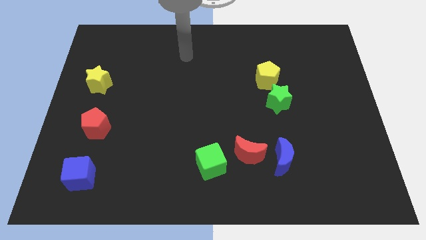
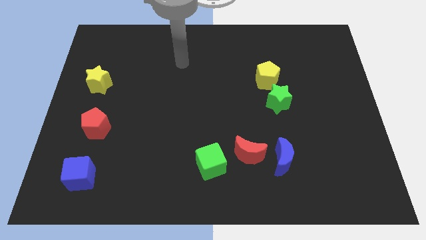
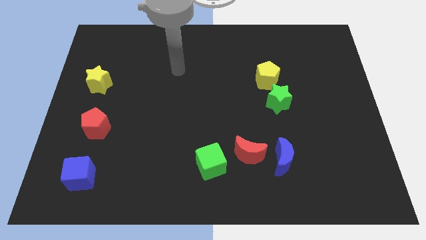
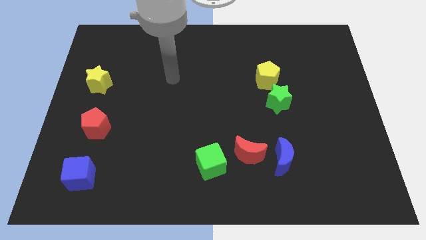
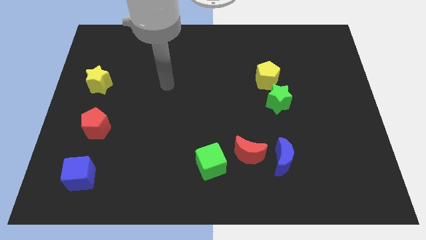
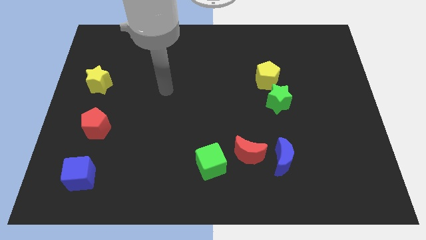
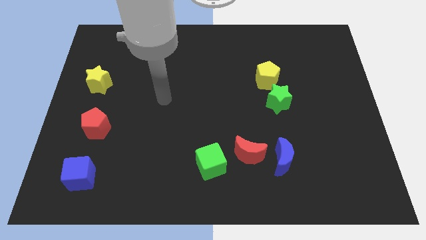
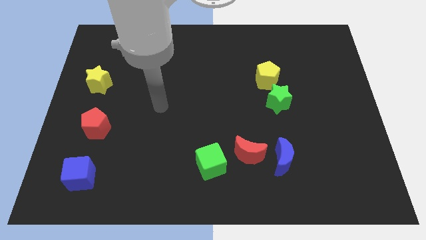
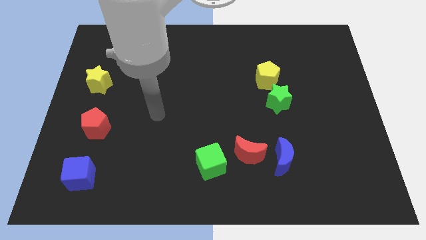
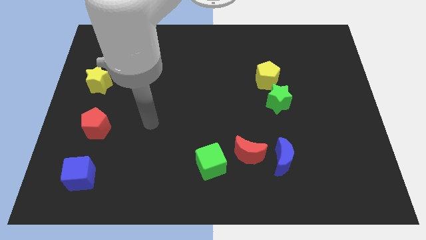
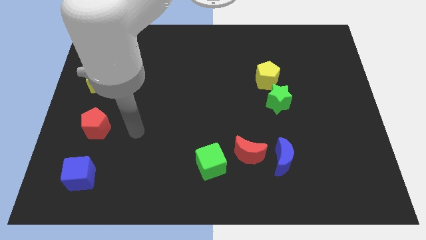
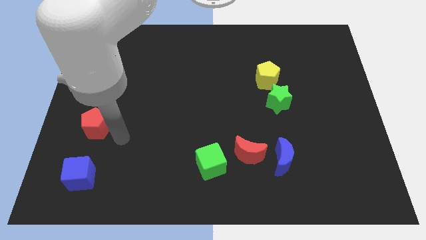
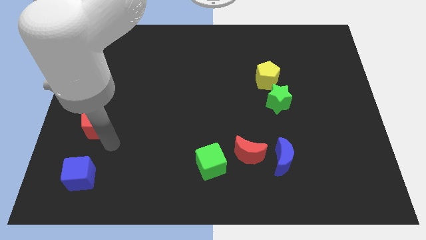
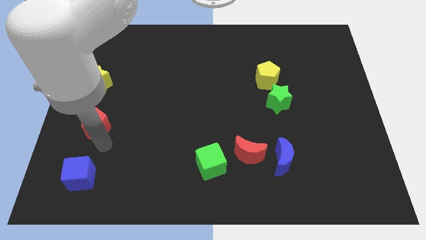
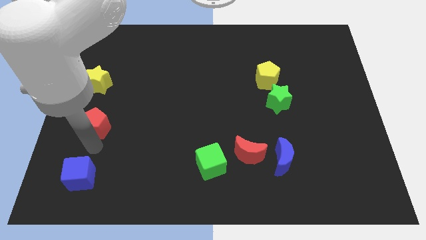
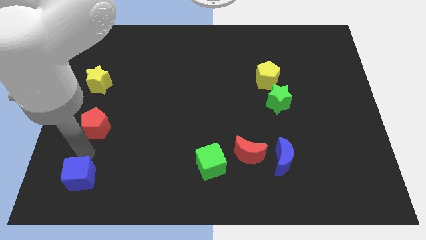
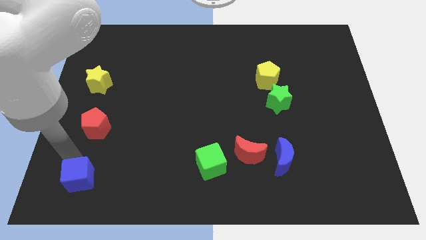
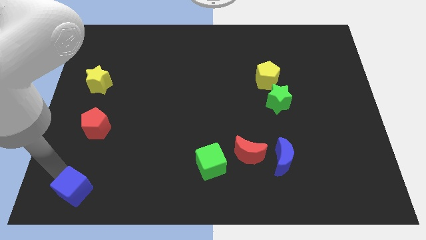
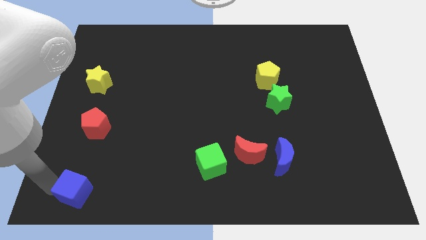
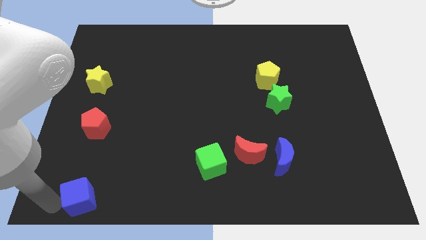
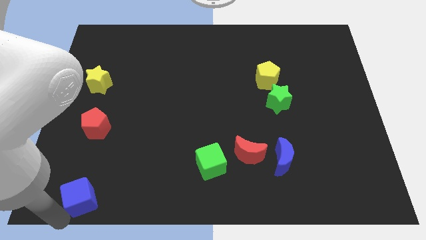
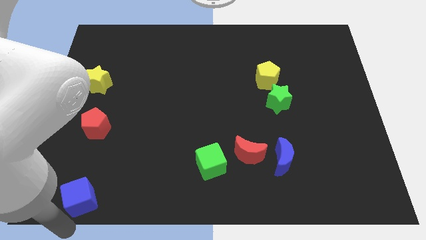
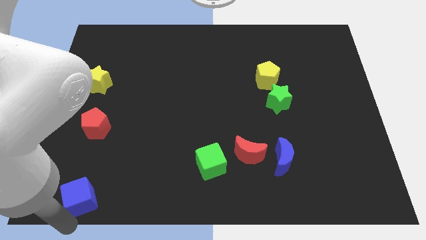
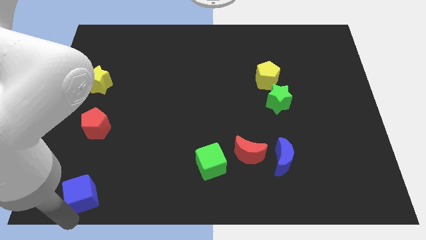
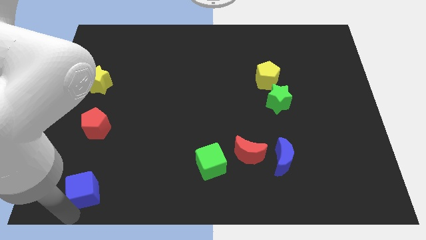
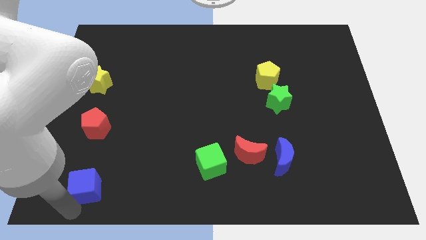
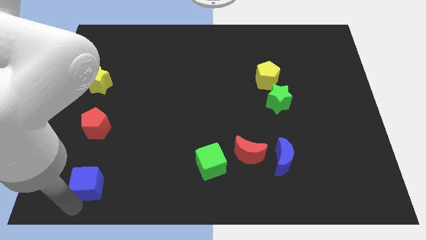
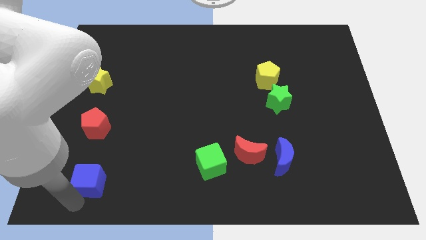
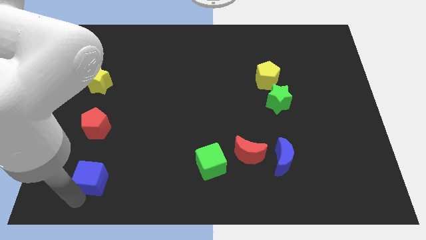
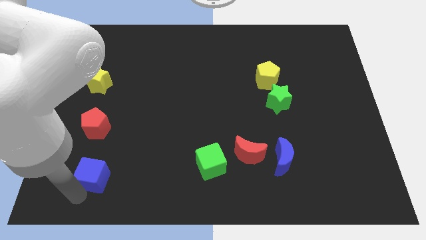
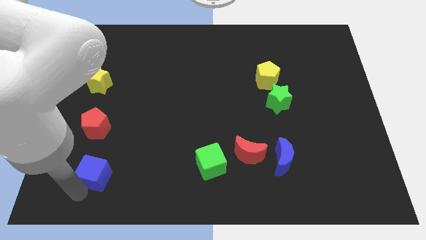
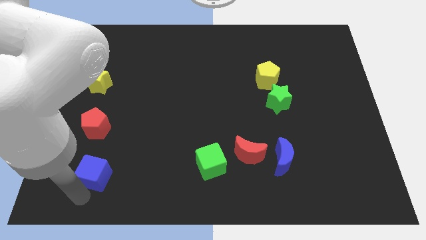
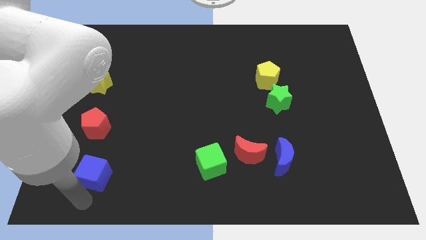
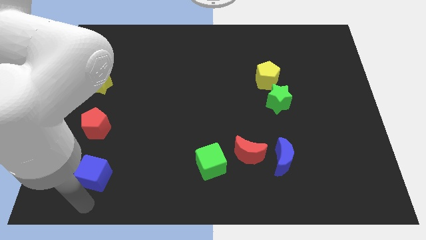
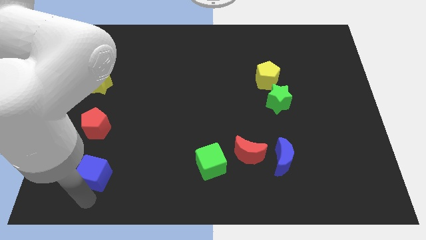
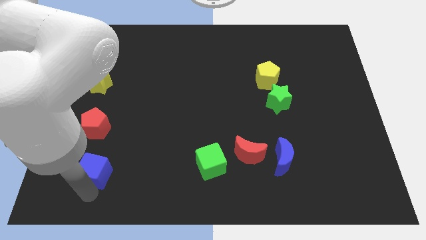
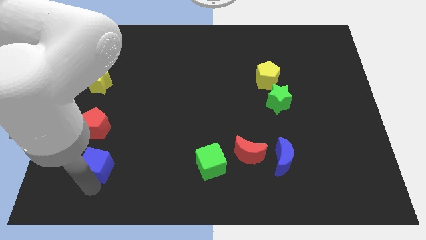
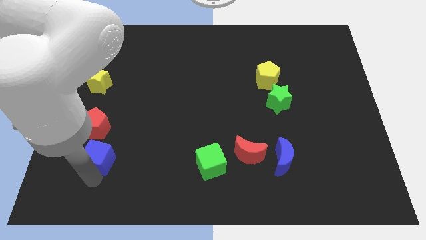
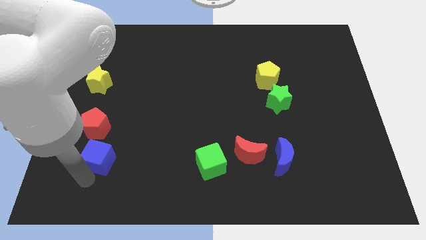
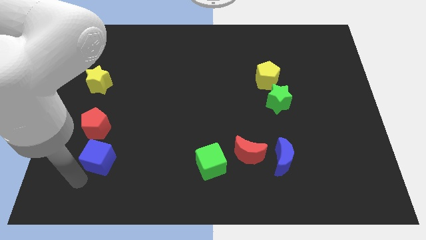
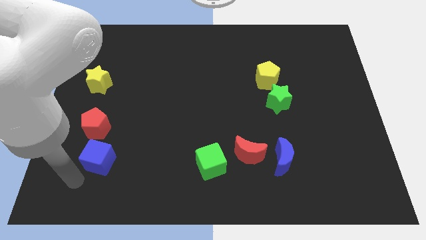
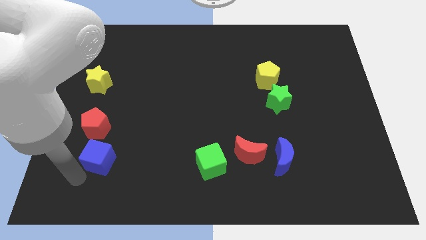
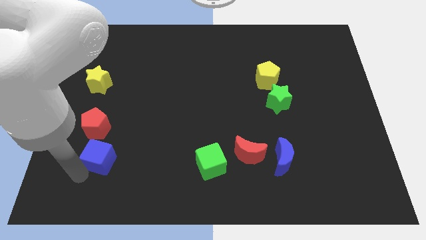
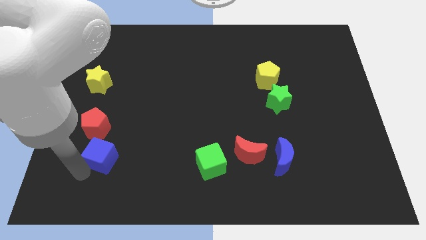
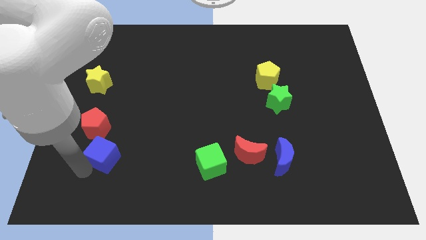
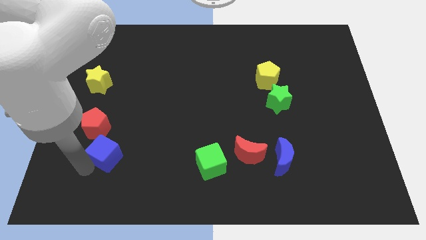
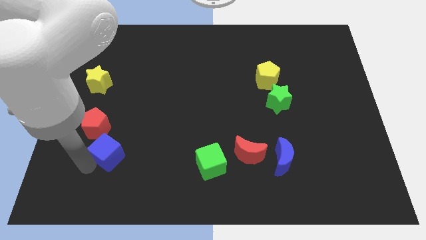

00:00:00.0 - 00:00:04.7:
slightly push the blue cube up and then right

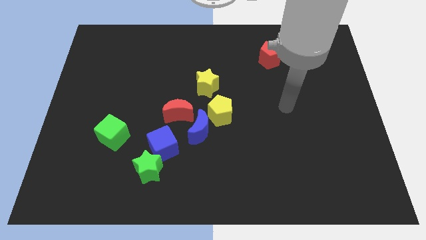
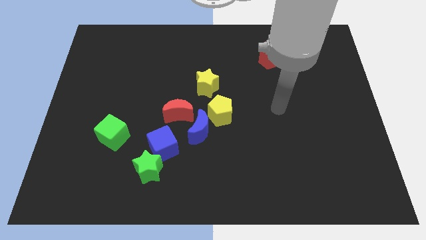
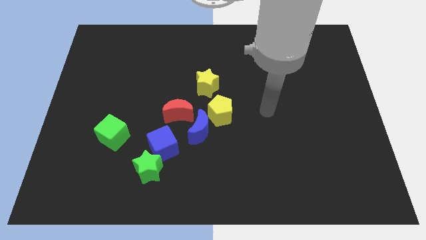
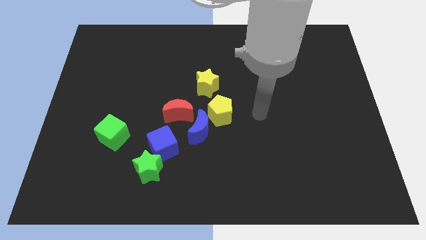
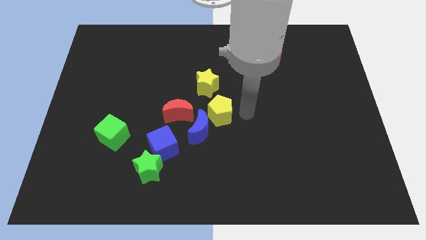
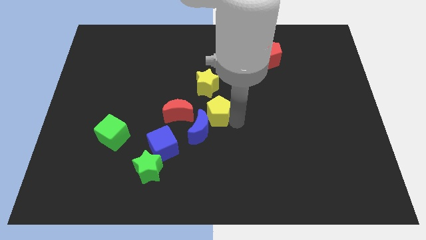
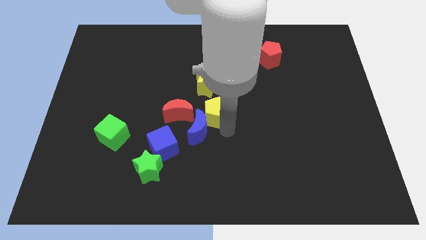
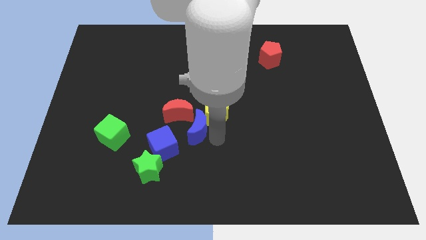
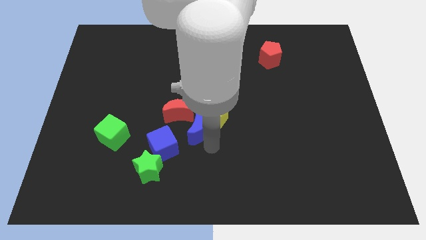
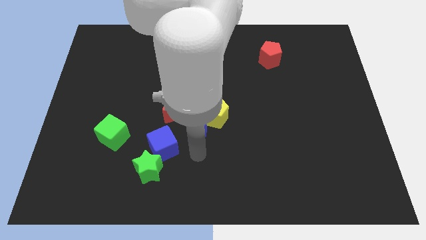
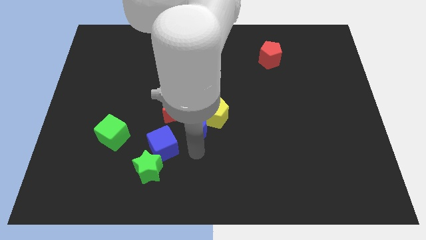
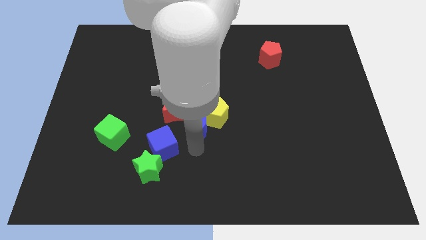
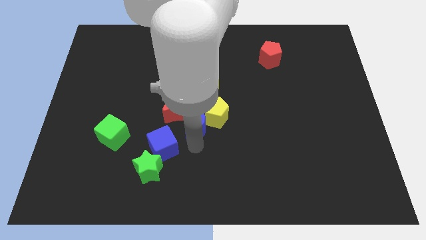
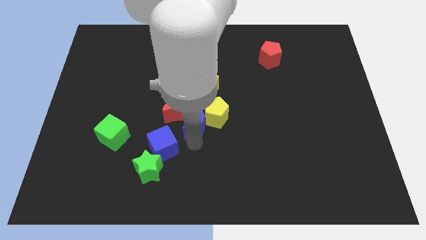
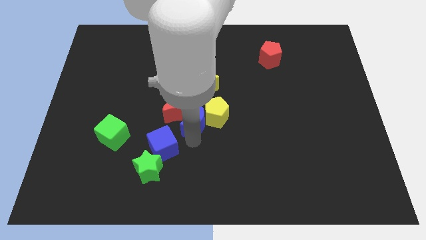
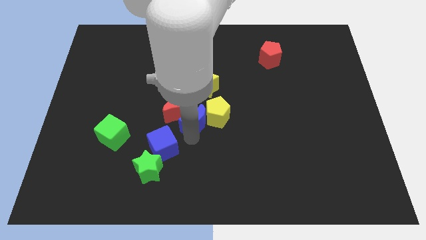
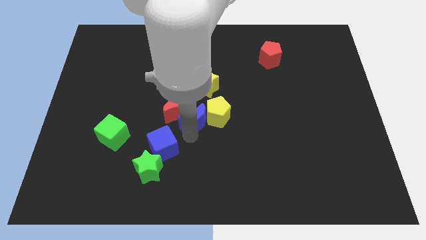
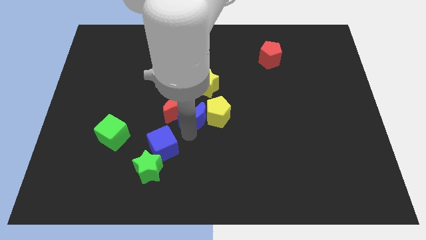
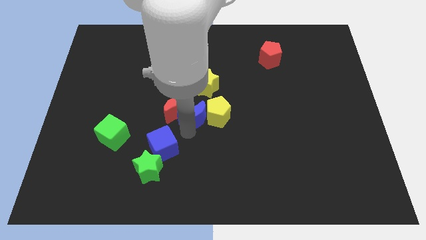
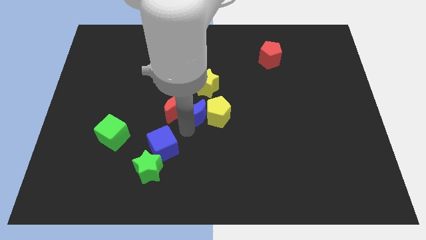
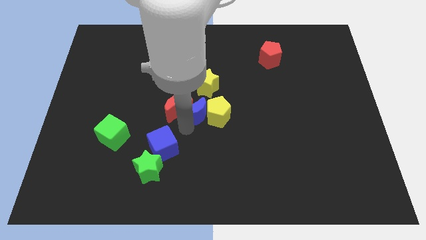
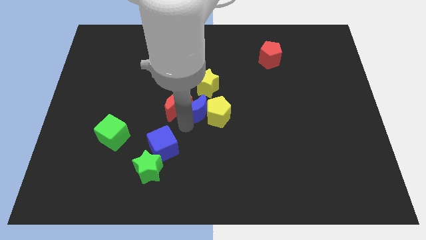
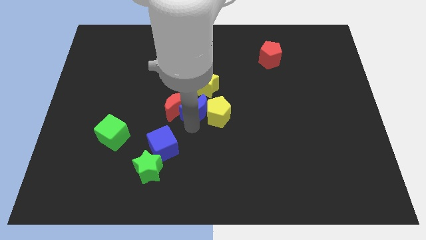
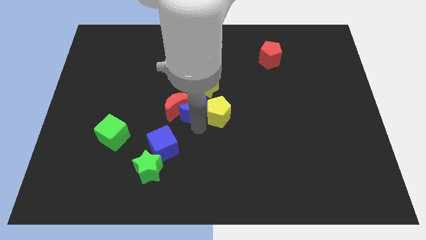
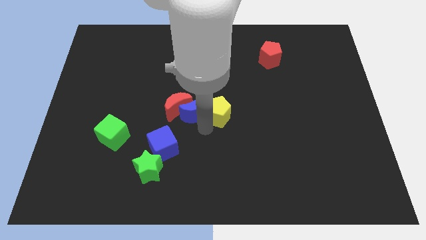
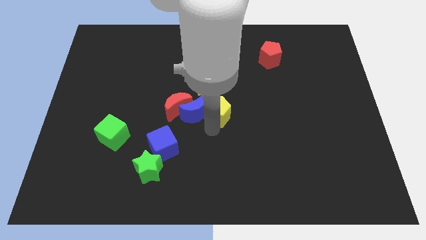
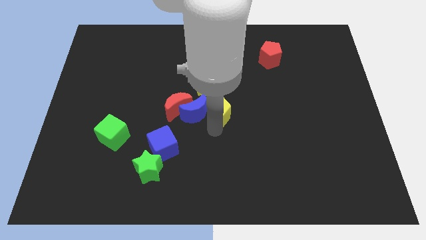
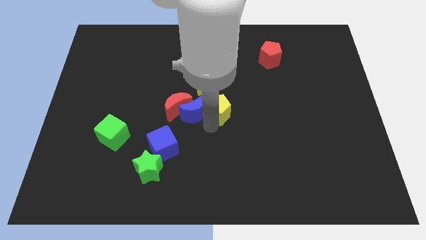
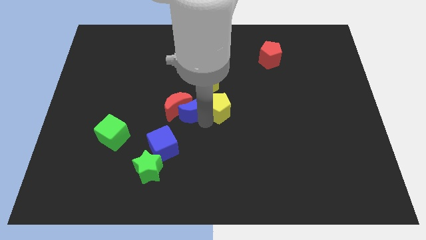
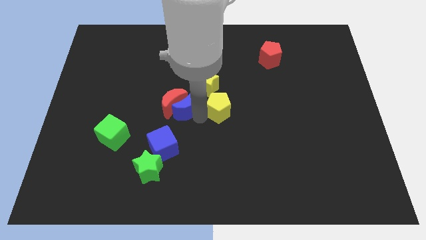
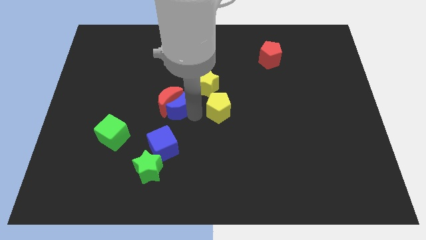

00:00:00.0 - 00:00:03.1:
slightly push the blue moon upwards and left

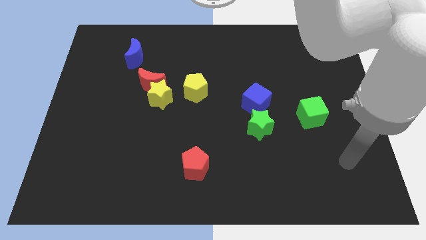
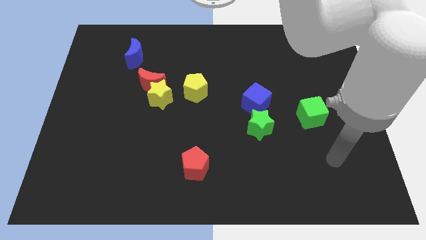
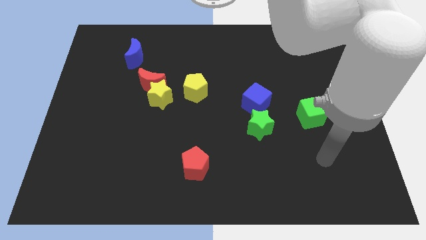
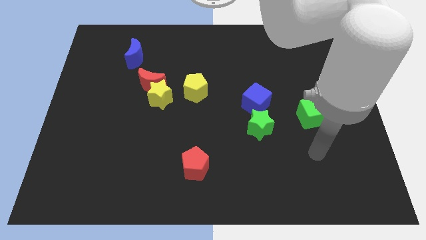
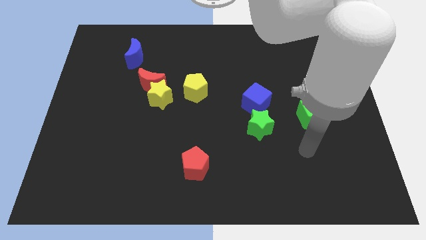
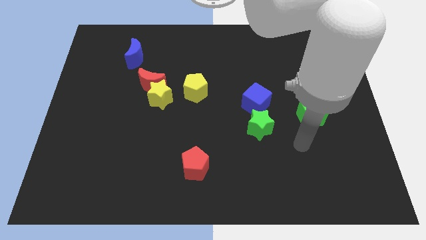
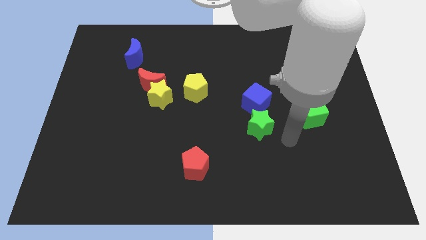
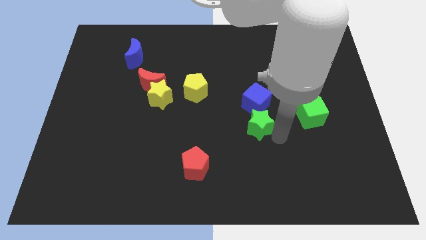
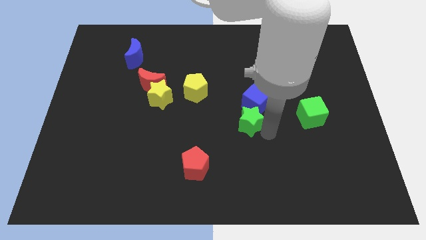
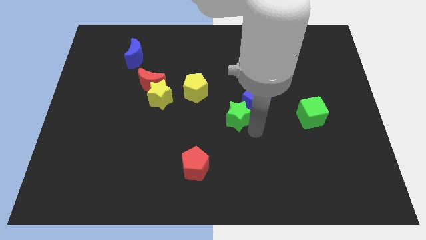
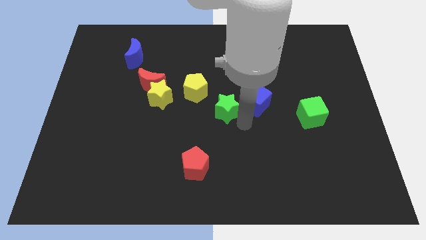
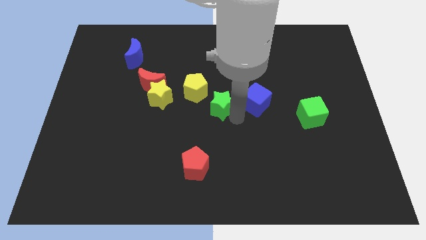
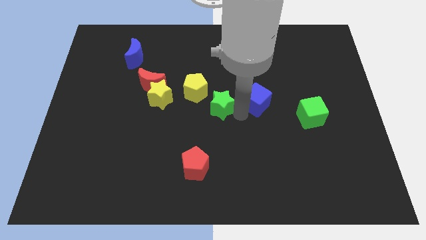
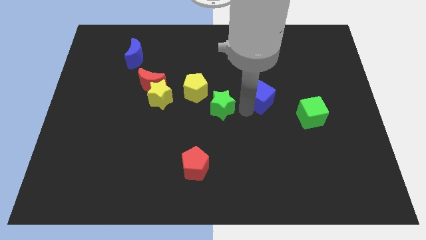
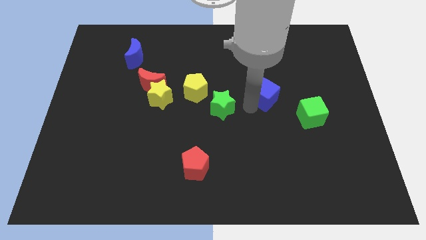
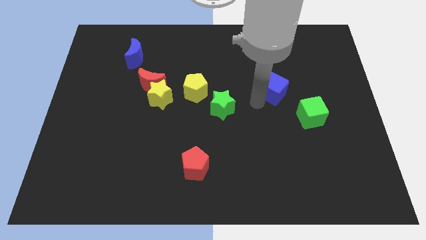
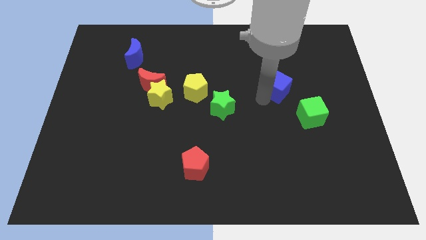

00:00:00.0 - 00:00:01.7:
move the blue cube somewhat up and to the right
